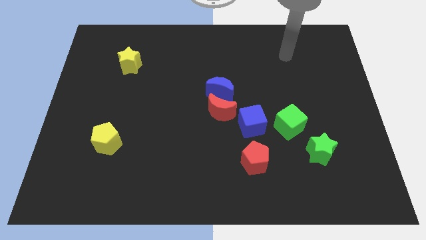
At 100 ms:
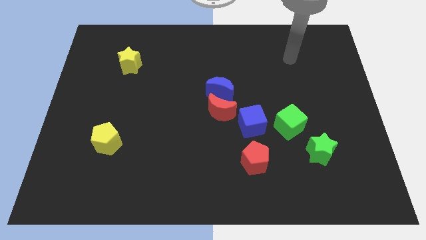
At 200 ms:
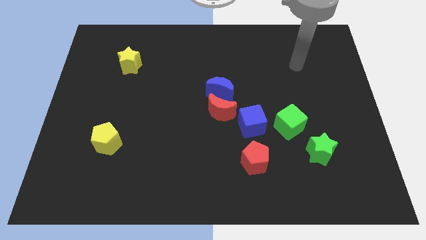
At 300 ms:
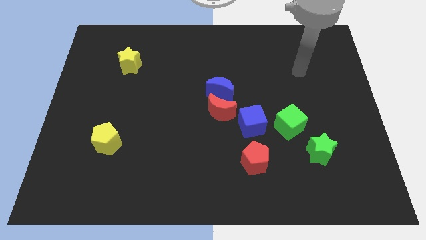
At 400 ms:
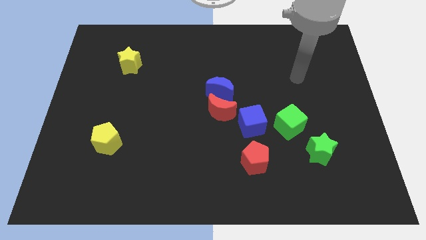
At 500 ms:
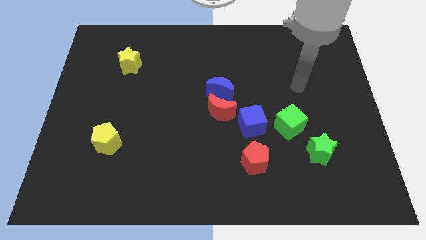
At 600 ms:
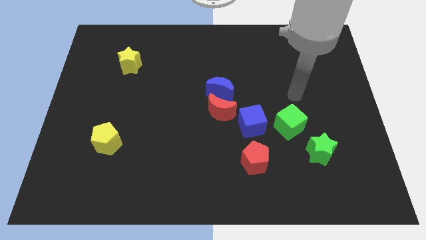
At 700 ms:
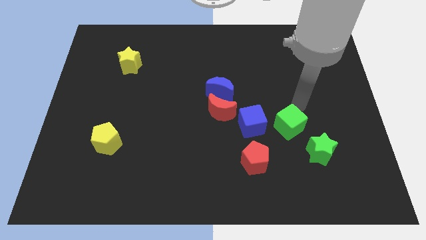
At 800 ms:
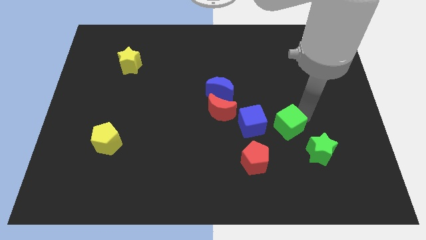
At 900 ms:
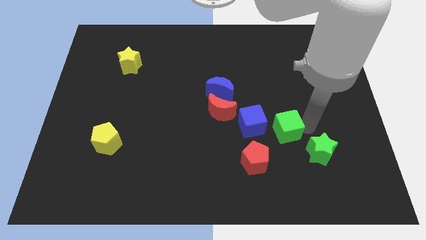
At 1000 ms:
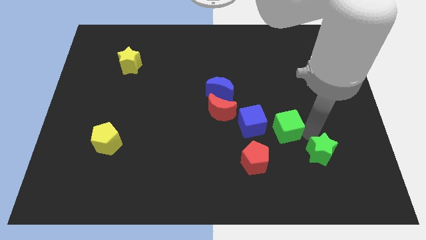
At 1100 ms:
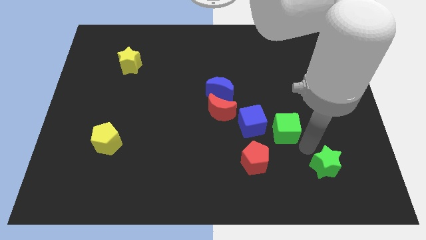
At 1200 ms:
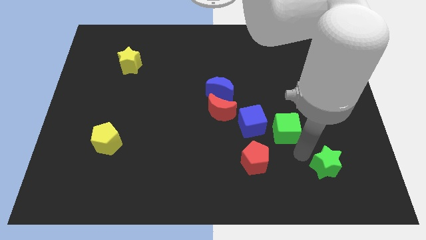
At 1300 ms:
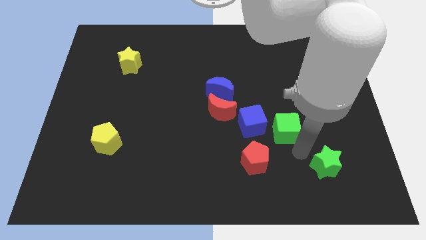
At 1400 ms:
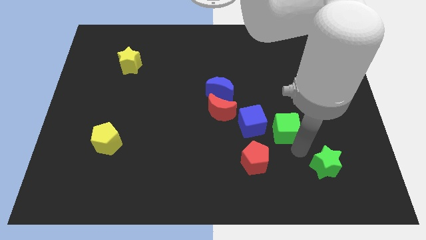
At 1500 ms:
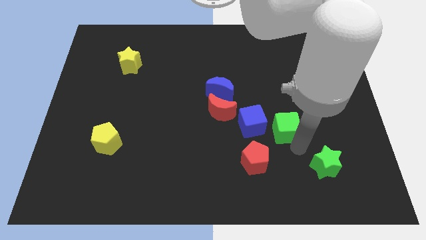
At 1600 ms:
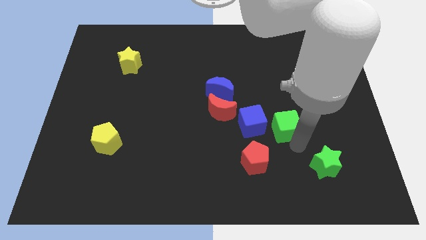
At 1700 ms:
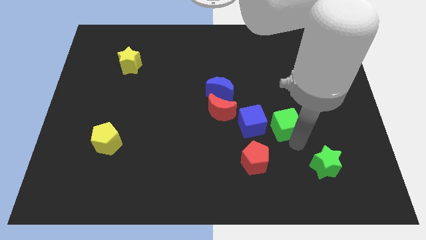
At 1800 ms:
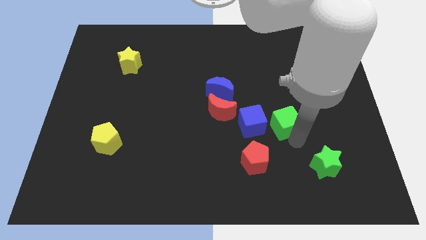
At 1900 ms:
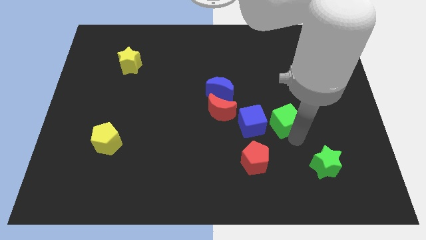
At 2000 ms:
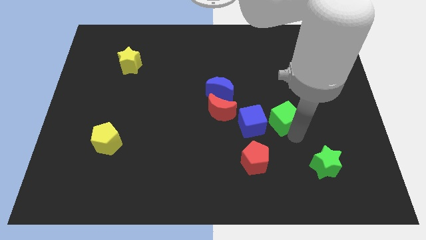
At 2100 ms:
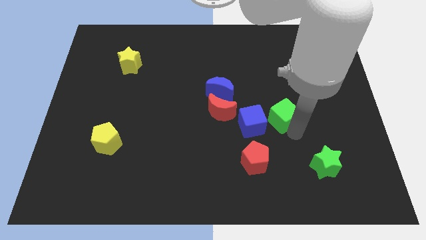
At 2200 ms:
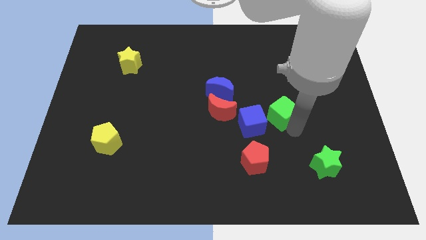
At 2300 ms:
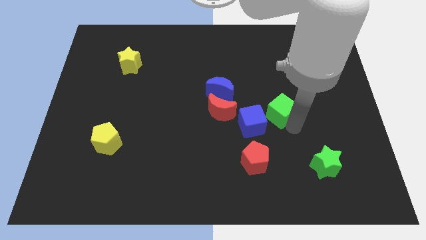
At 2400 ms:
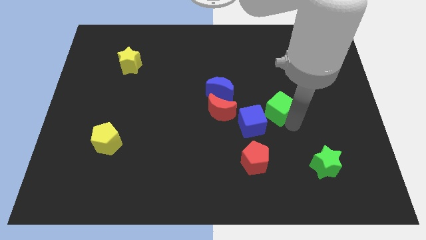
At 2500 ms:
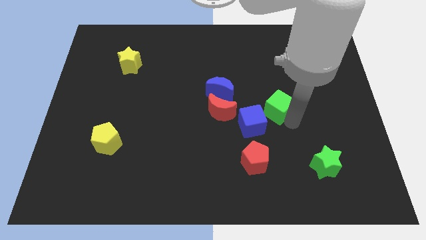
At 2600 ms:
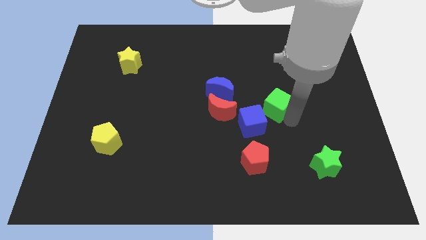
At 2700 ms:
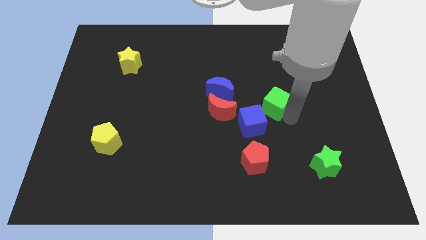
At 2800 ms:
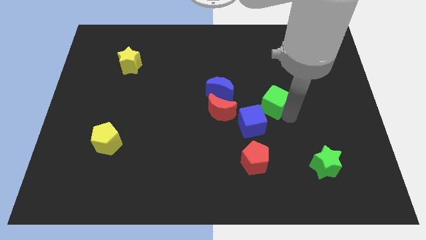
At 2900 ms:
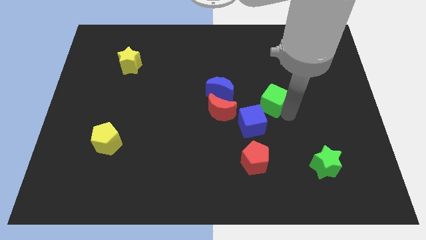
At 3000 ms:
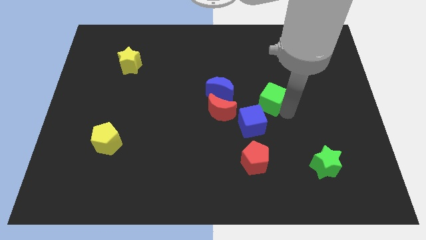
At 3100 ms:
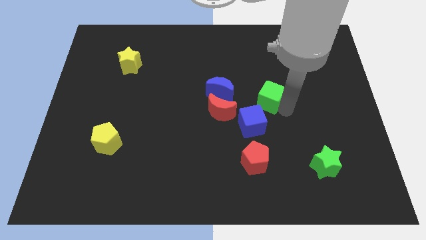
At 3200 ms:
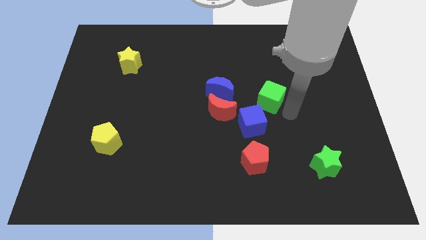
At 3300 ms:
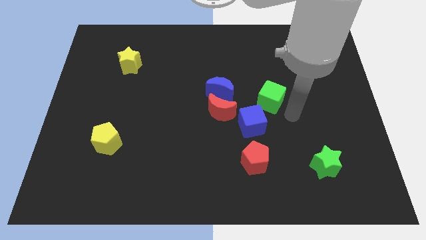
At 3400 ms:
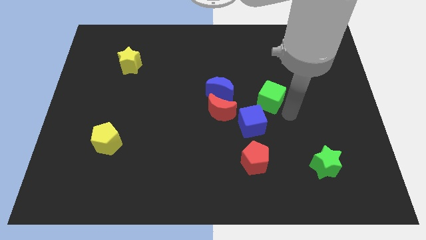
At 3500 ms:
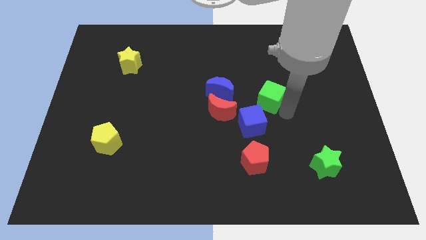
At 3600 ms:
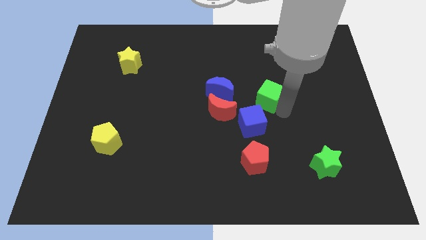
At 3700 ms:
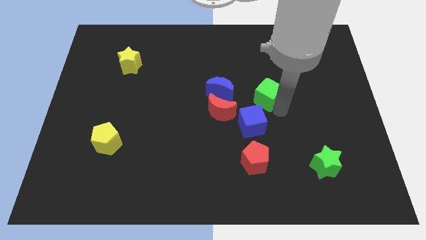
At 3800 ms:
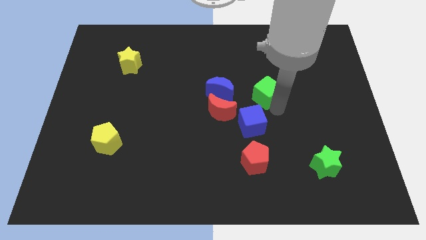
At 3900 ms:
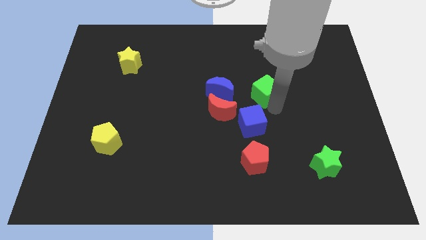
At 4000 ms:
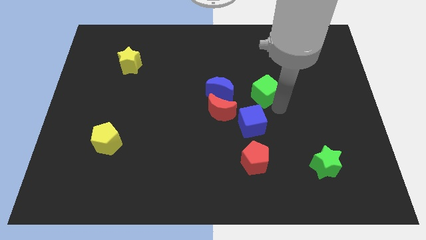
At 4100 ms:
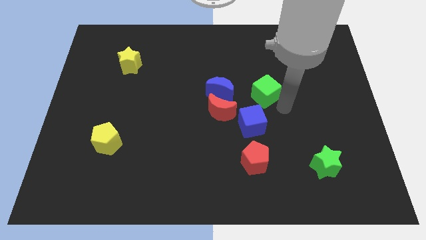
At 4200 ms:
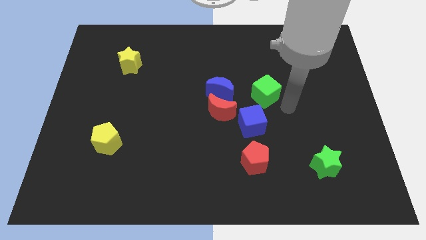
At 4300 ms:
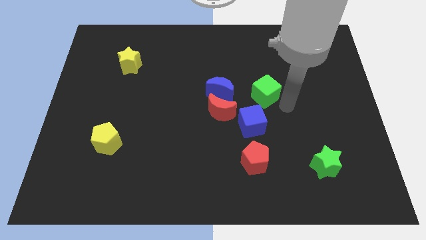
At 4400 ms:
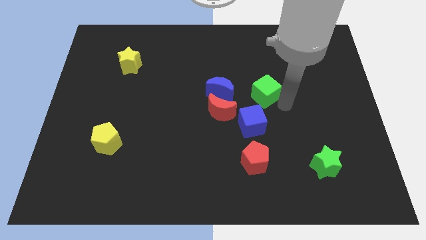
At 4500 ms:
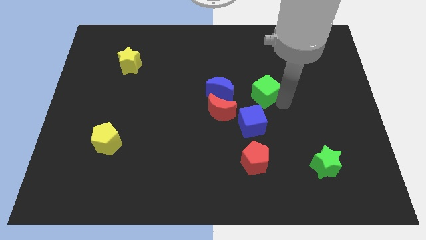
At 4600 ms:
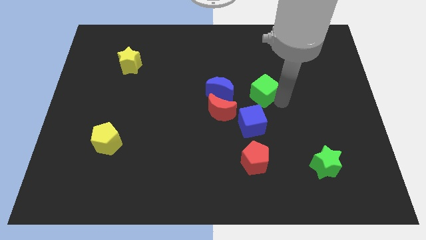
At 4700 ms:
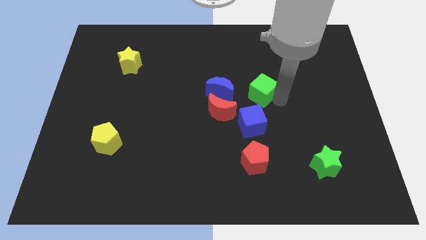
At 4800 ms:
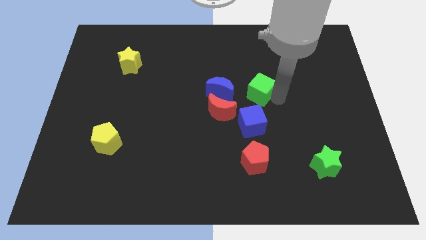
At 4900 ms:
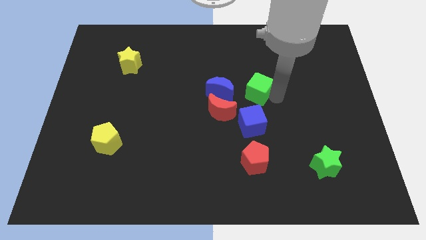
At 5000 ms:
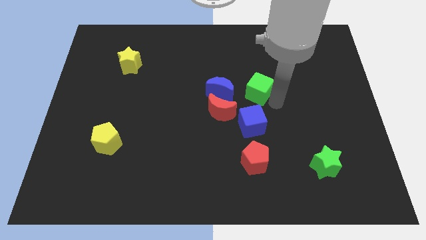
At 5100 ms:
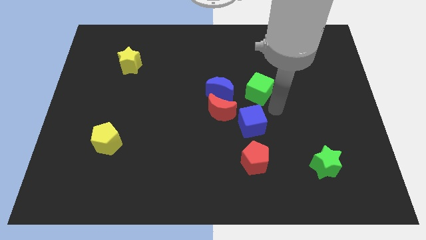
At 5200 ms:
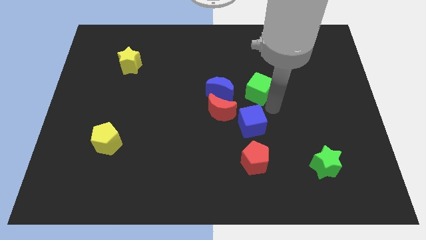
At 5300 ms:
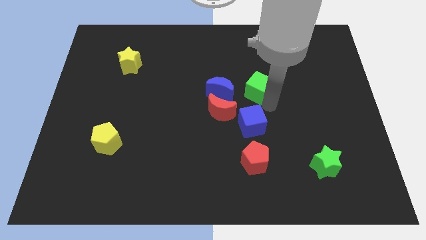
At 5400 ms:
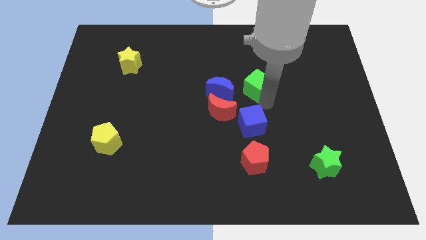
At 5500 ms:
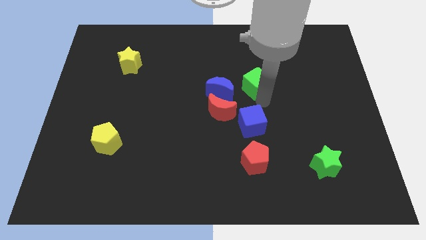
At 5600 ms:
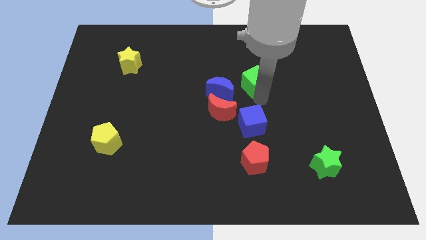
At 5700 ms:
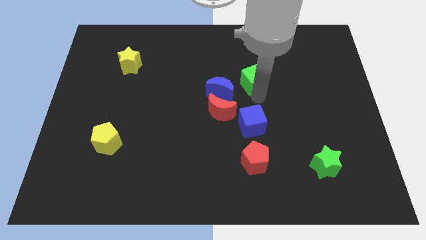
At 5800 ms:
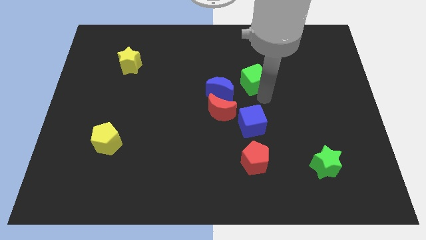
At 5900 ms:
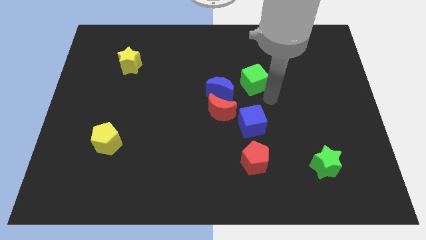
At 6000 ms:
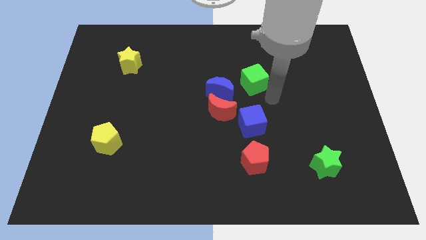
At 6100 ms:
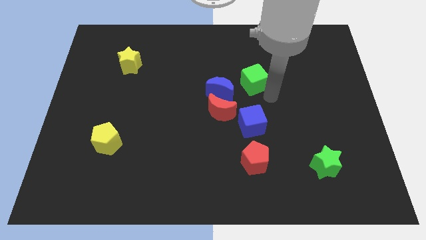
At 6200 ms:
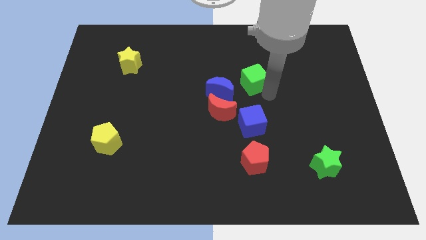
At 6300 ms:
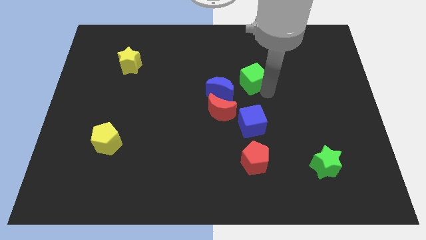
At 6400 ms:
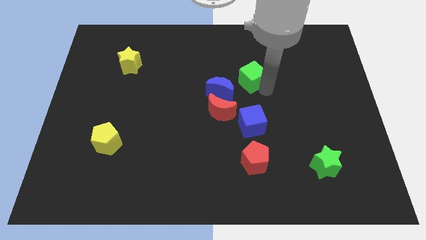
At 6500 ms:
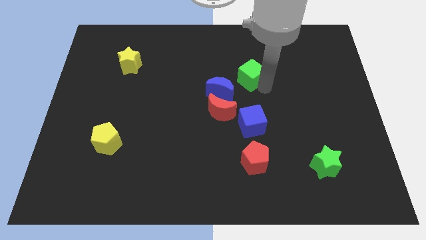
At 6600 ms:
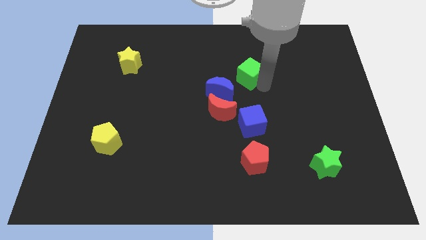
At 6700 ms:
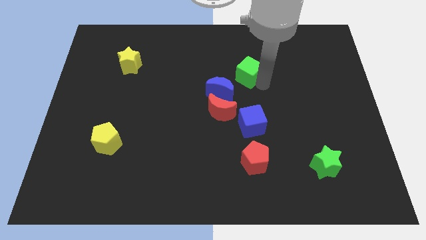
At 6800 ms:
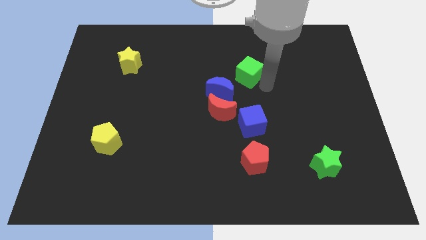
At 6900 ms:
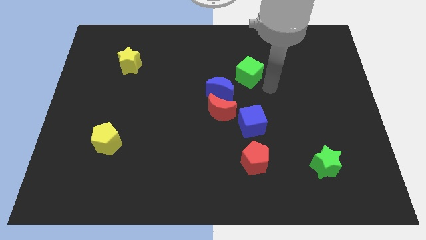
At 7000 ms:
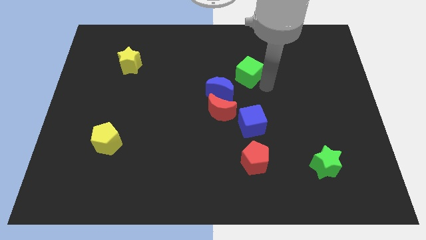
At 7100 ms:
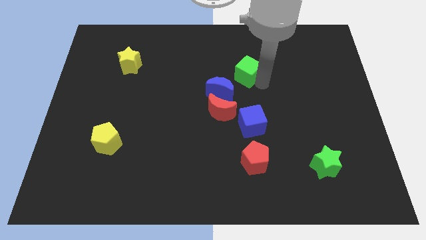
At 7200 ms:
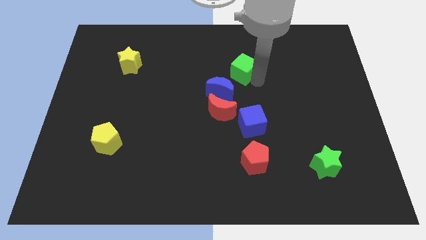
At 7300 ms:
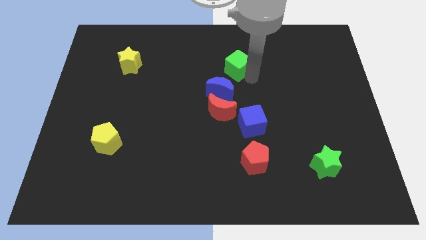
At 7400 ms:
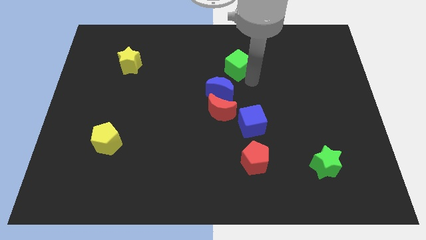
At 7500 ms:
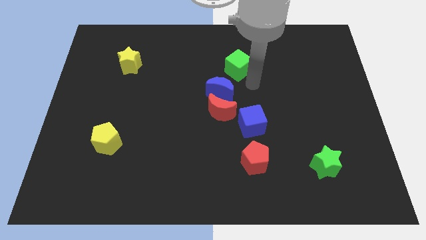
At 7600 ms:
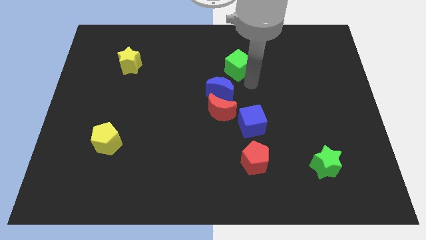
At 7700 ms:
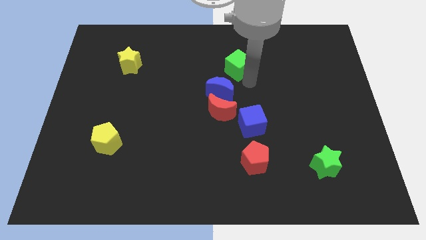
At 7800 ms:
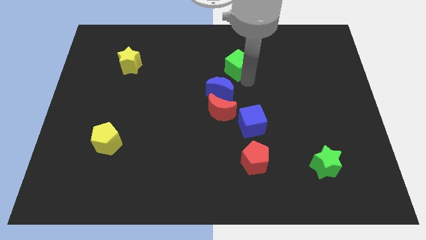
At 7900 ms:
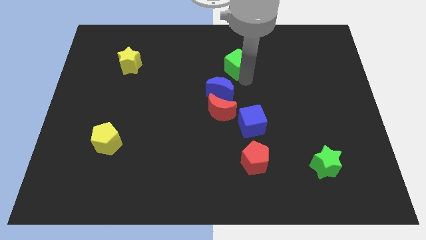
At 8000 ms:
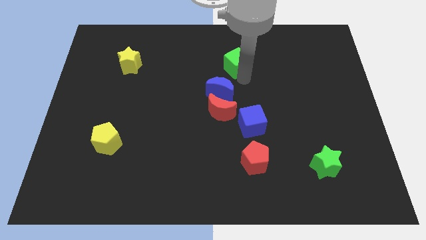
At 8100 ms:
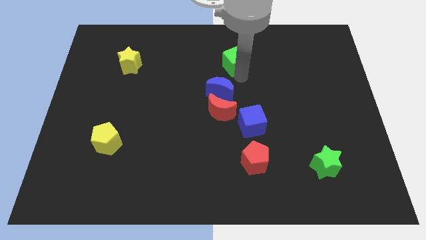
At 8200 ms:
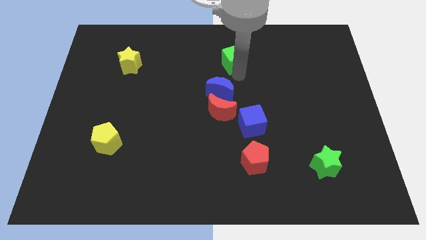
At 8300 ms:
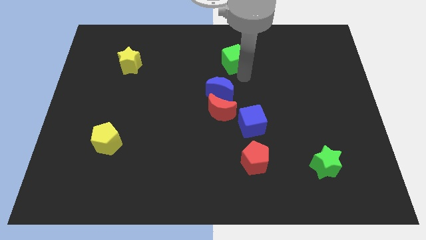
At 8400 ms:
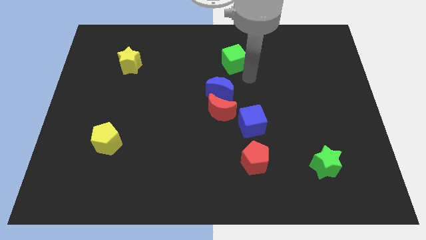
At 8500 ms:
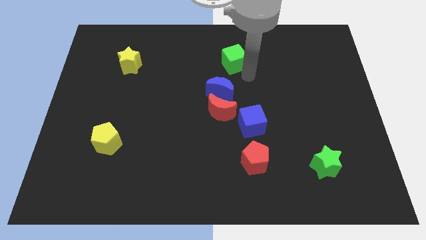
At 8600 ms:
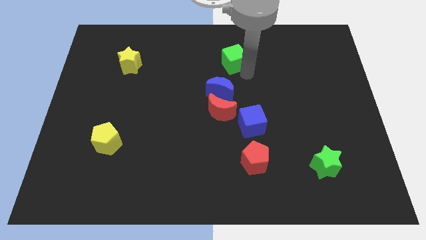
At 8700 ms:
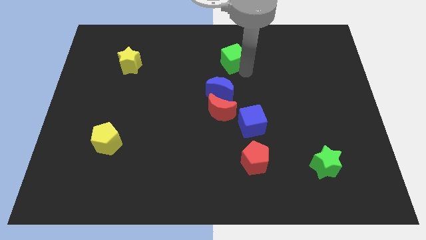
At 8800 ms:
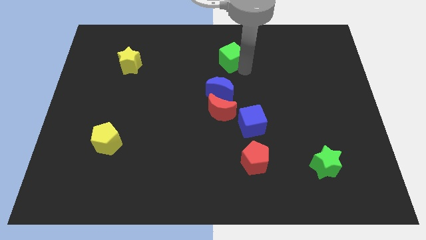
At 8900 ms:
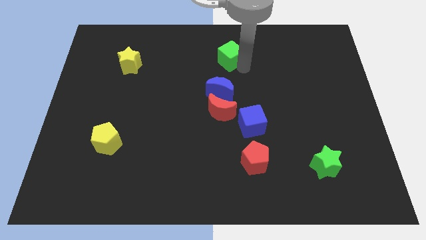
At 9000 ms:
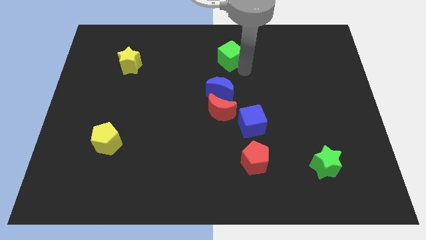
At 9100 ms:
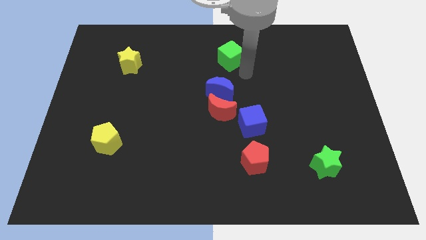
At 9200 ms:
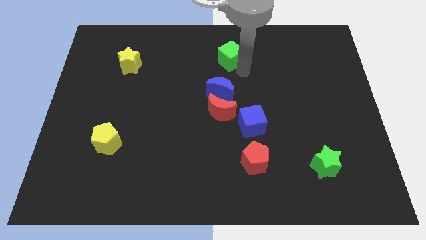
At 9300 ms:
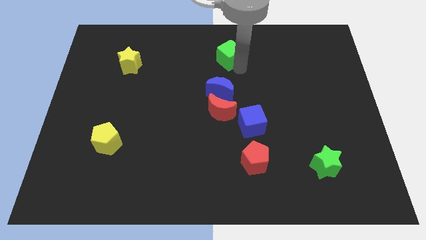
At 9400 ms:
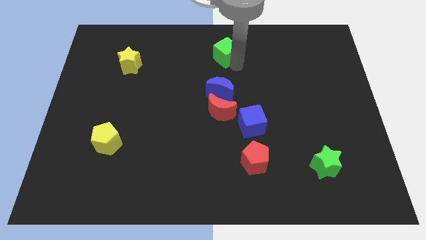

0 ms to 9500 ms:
move the green cube to the towards your base
